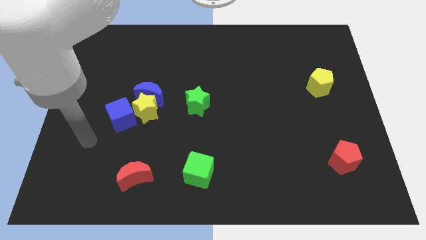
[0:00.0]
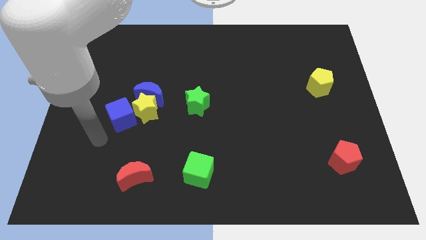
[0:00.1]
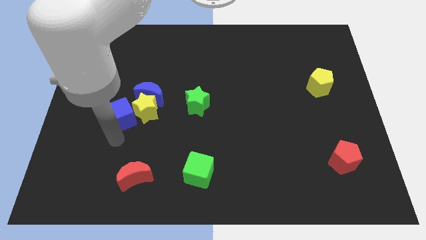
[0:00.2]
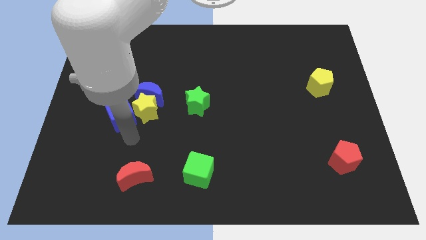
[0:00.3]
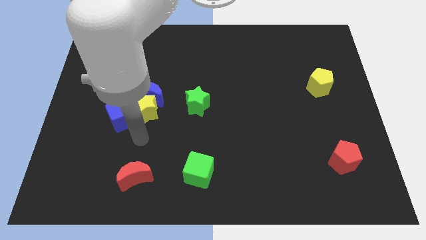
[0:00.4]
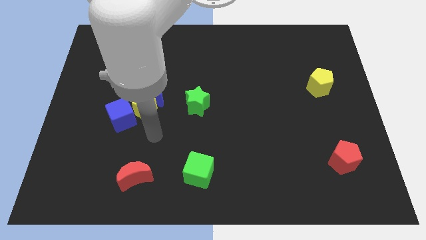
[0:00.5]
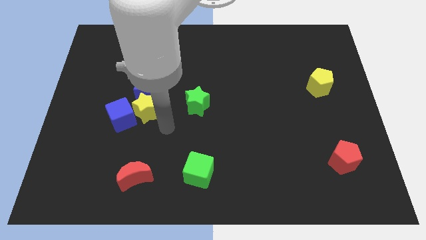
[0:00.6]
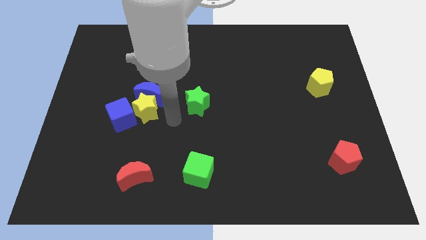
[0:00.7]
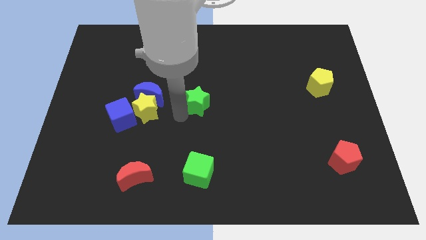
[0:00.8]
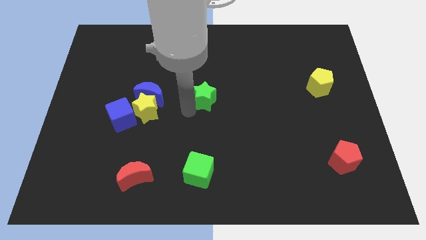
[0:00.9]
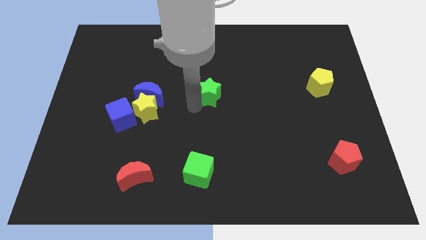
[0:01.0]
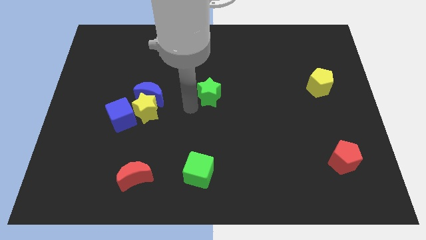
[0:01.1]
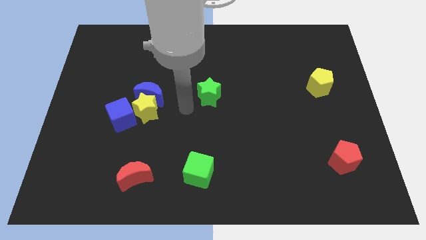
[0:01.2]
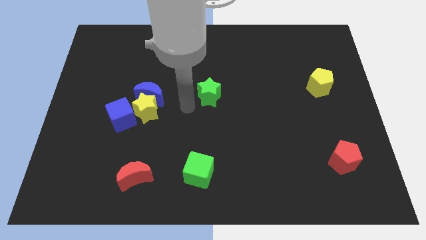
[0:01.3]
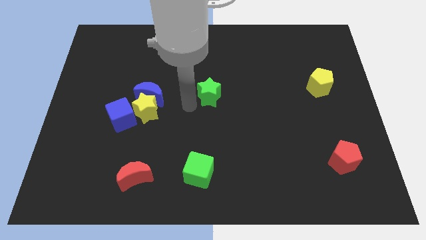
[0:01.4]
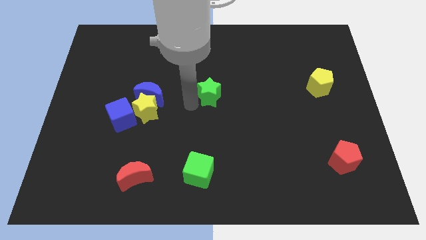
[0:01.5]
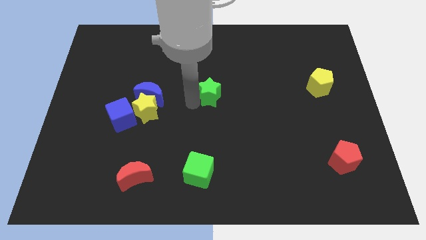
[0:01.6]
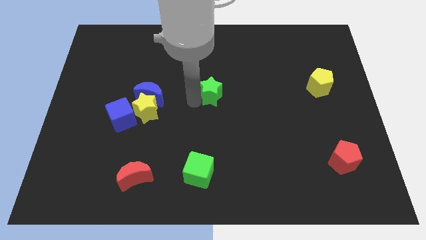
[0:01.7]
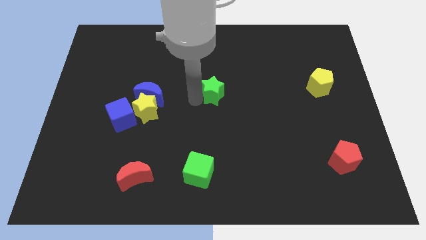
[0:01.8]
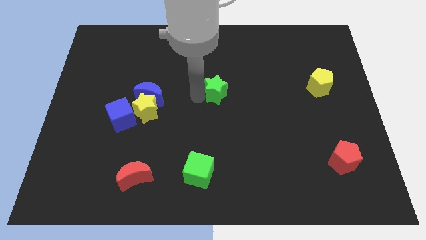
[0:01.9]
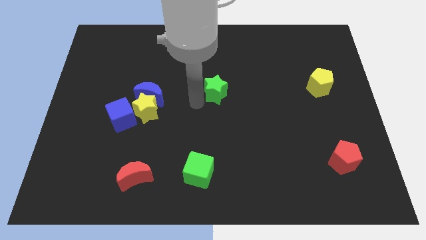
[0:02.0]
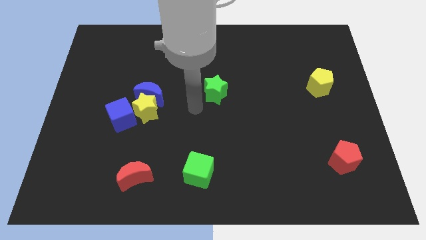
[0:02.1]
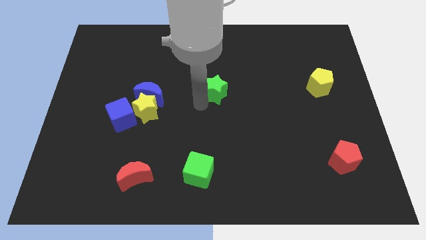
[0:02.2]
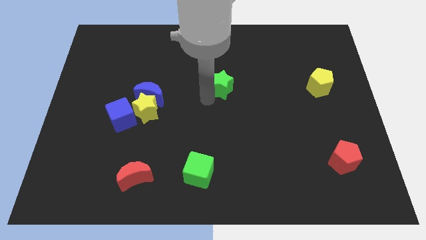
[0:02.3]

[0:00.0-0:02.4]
move the green star up and to the right diagonally a little bit

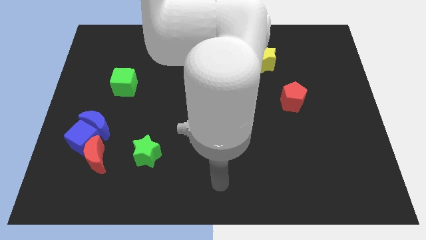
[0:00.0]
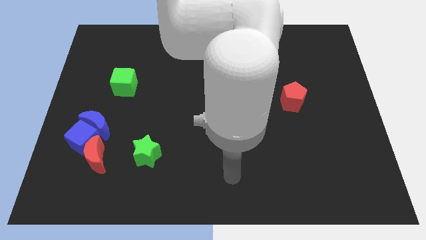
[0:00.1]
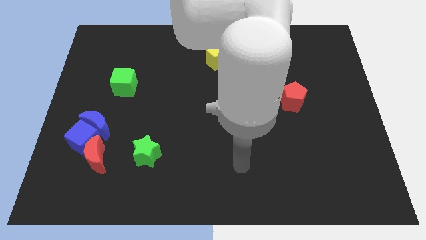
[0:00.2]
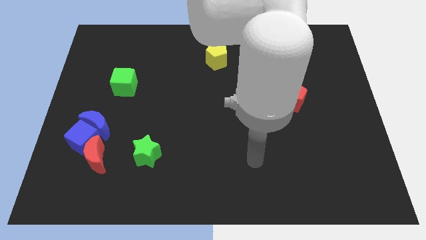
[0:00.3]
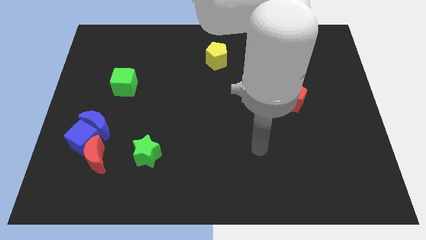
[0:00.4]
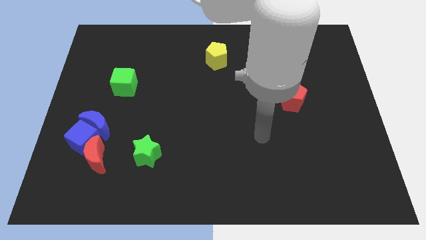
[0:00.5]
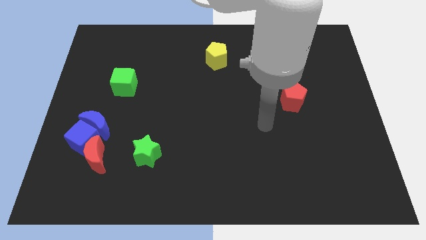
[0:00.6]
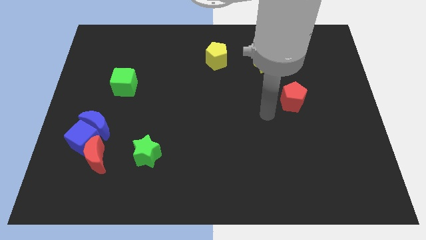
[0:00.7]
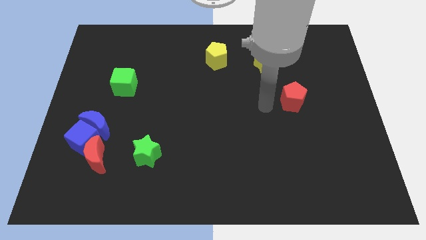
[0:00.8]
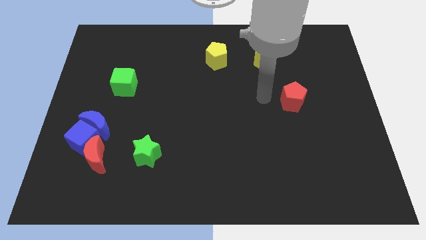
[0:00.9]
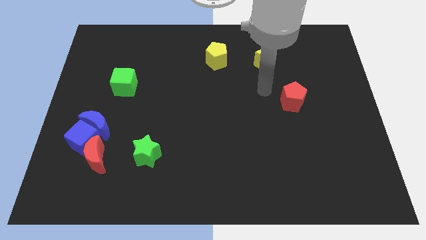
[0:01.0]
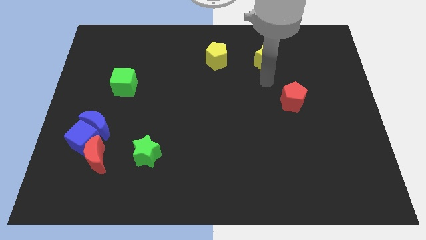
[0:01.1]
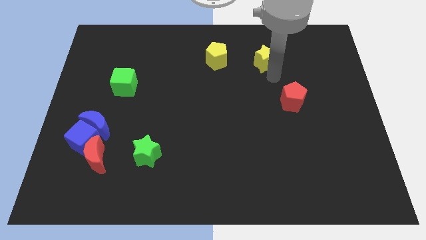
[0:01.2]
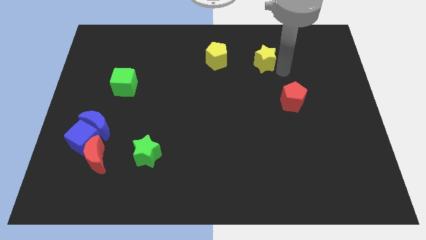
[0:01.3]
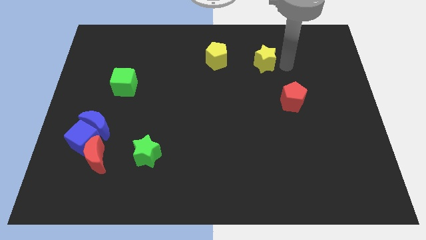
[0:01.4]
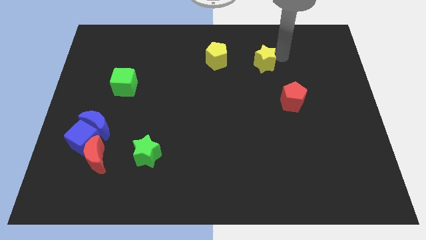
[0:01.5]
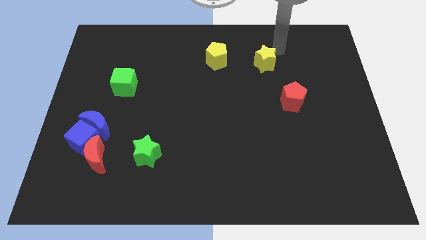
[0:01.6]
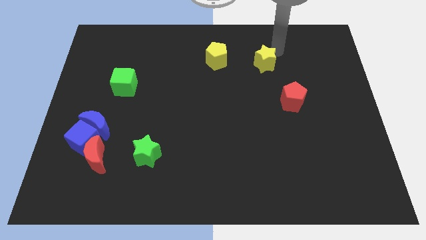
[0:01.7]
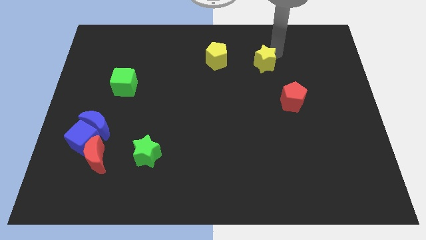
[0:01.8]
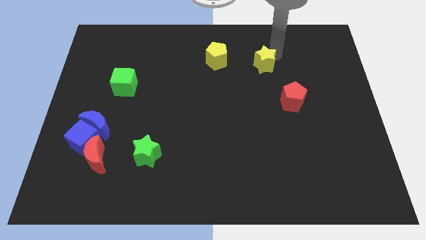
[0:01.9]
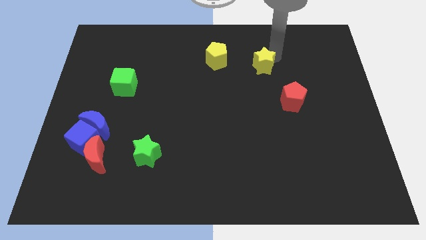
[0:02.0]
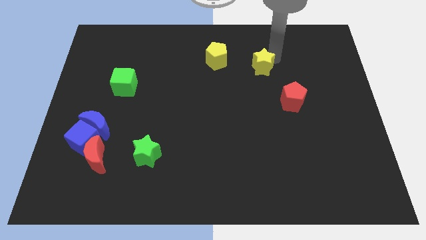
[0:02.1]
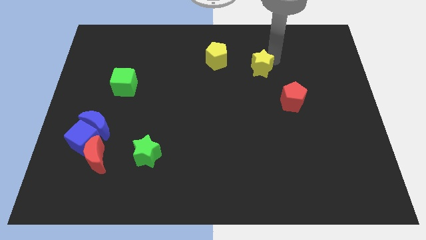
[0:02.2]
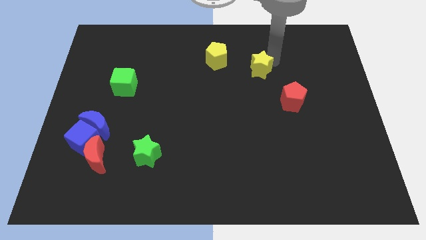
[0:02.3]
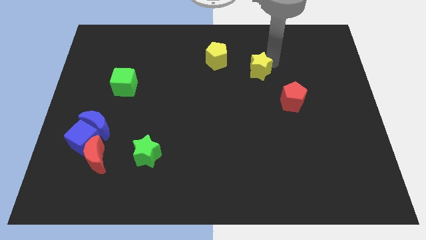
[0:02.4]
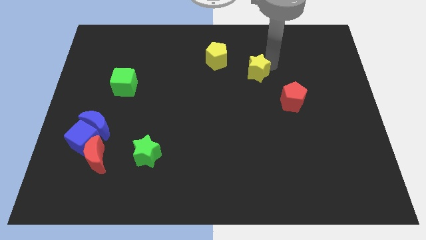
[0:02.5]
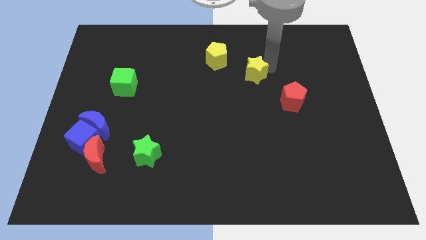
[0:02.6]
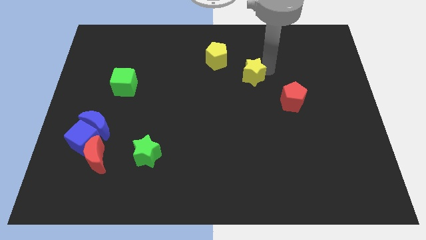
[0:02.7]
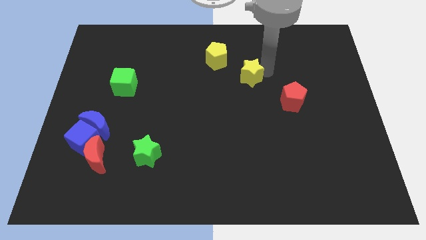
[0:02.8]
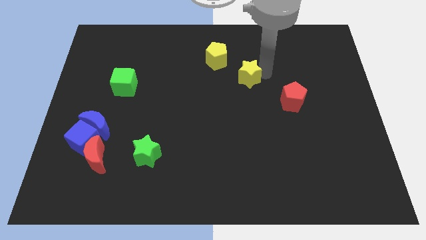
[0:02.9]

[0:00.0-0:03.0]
slightly slide the yellow star downwards and then to the left

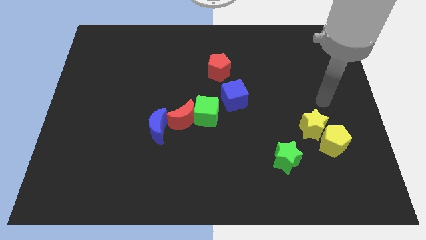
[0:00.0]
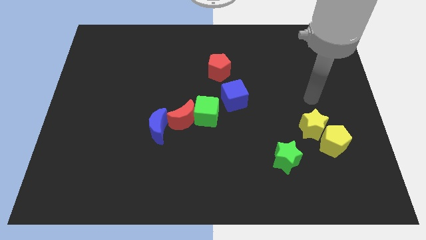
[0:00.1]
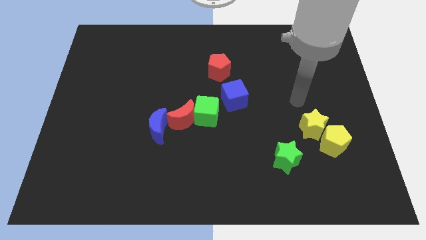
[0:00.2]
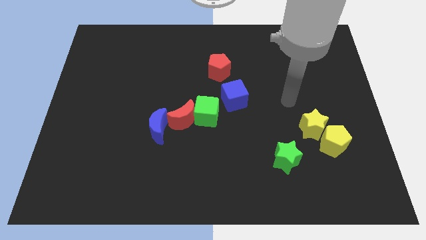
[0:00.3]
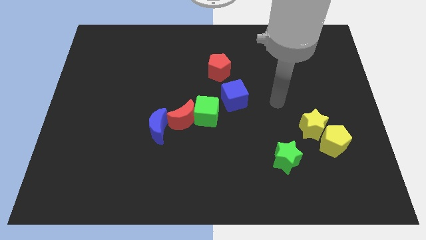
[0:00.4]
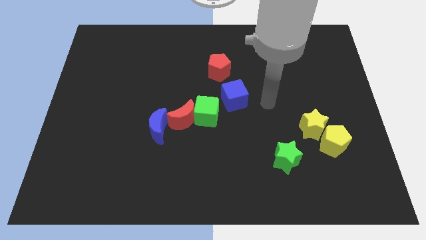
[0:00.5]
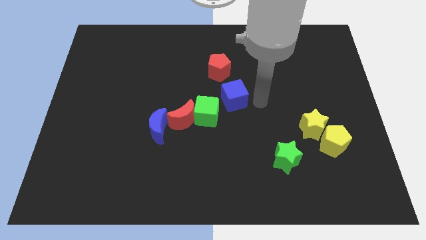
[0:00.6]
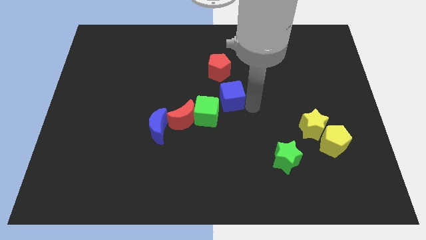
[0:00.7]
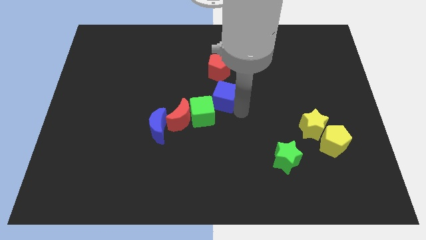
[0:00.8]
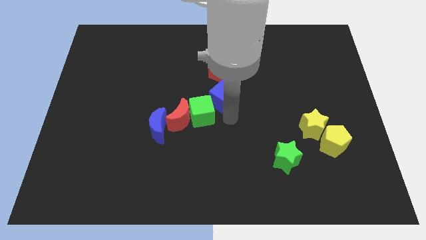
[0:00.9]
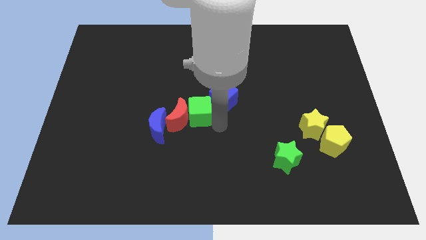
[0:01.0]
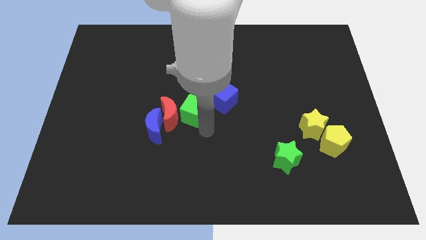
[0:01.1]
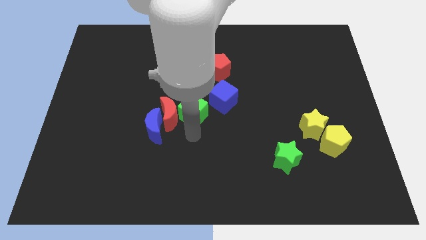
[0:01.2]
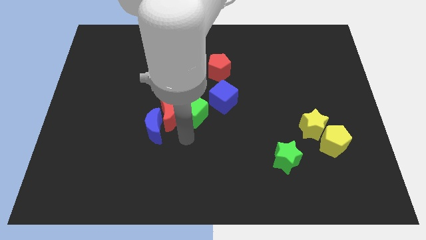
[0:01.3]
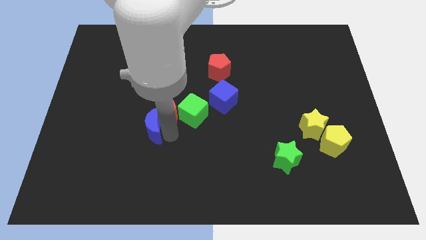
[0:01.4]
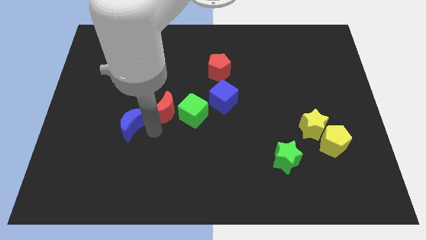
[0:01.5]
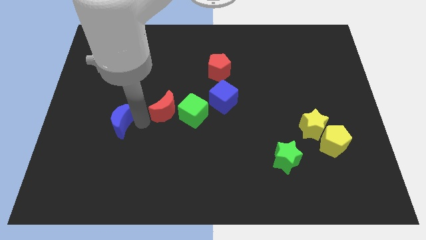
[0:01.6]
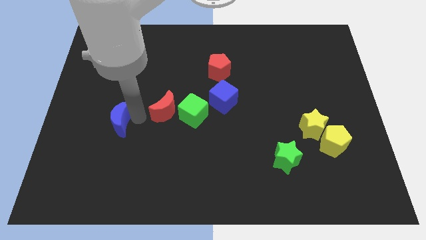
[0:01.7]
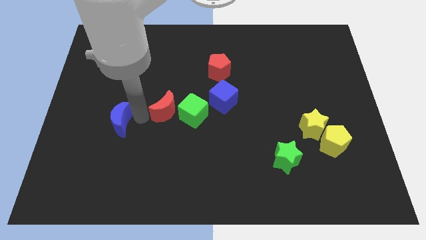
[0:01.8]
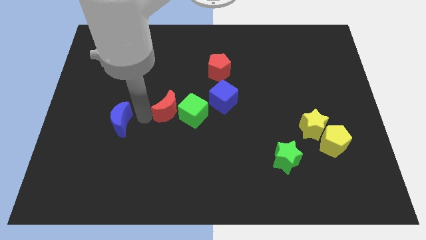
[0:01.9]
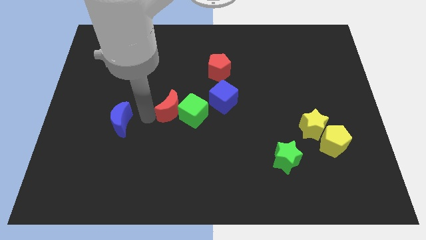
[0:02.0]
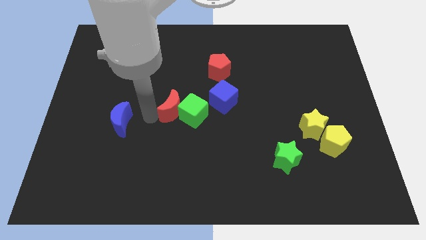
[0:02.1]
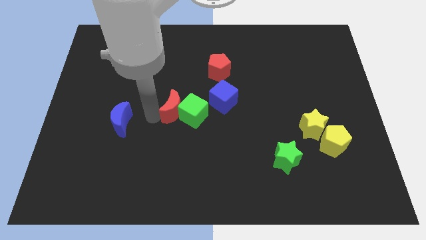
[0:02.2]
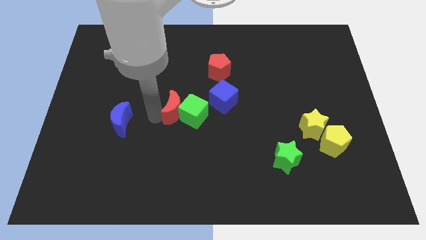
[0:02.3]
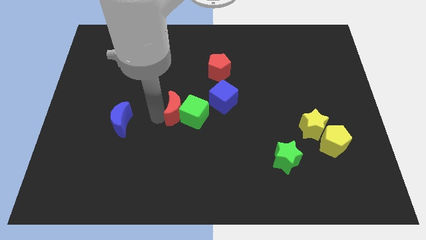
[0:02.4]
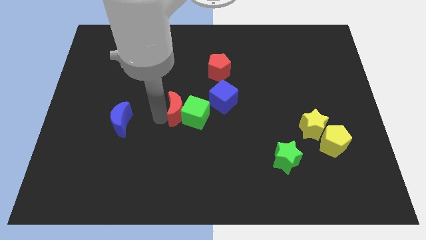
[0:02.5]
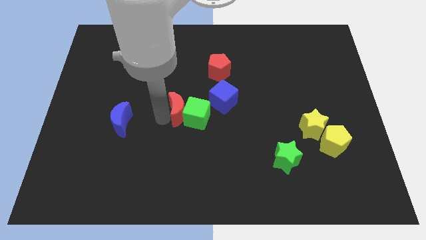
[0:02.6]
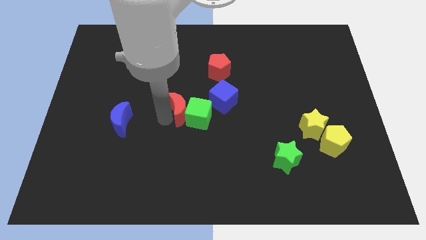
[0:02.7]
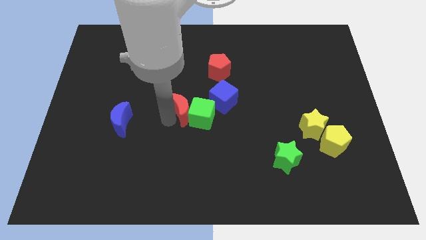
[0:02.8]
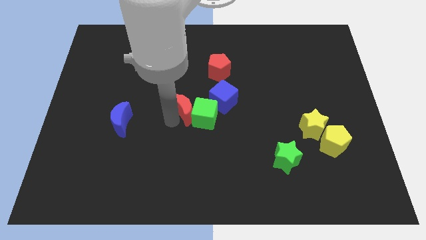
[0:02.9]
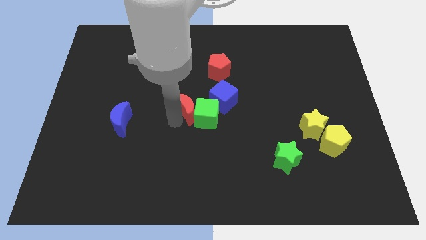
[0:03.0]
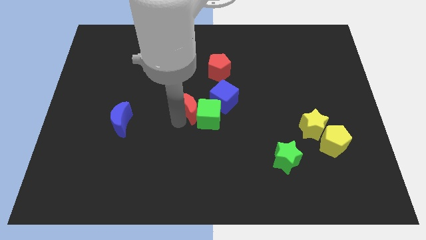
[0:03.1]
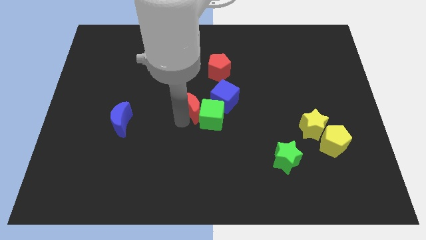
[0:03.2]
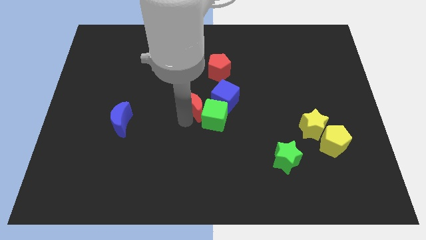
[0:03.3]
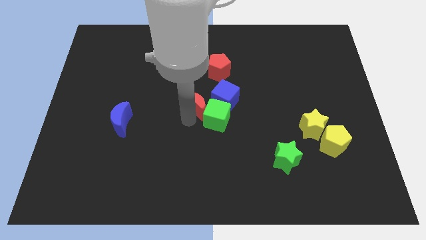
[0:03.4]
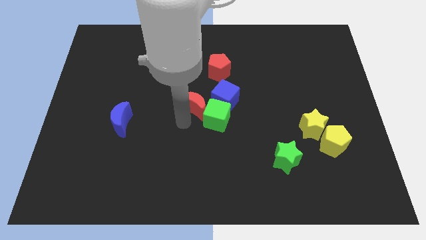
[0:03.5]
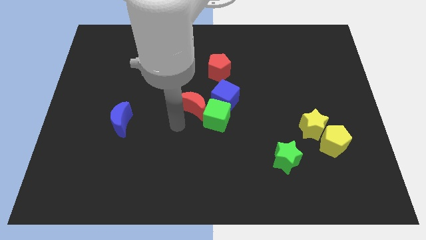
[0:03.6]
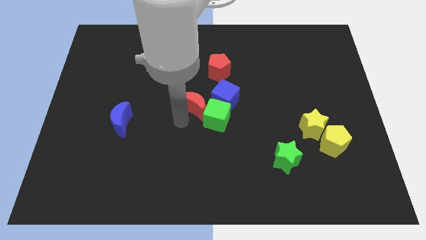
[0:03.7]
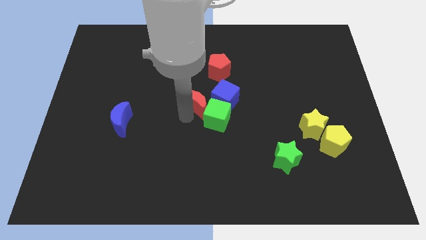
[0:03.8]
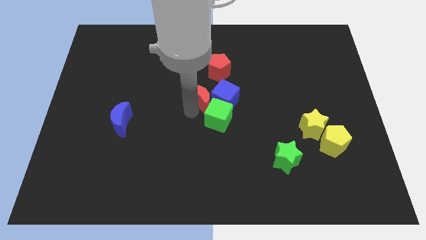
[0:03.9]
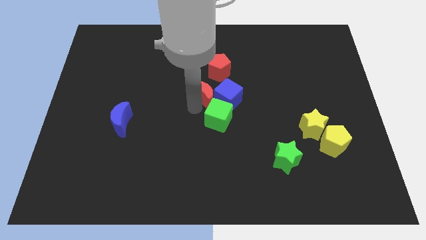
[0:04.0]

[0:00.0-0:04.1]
push the red moon up and to the right diagonally slightly
